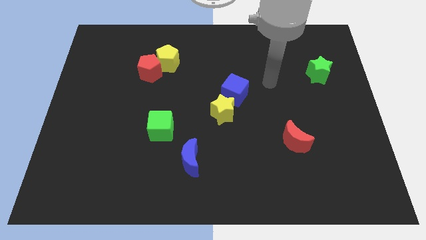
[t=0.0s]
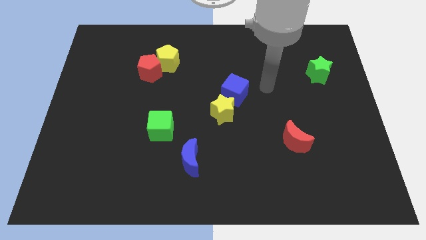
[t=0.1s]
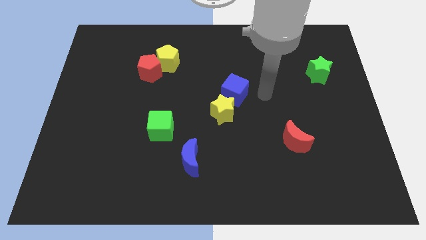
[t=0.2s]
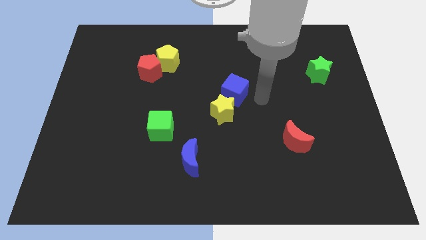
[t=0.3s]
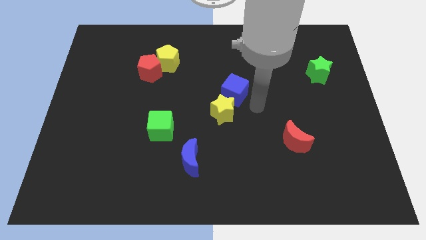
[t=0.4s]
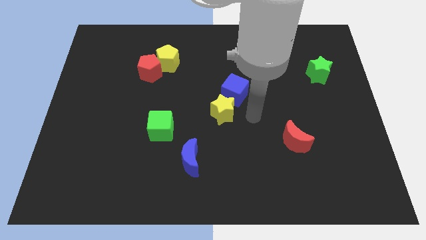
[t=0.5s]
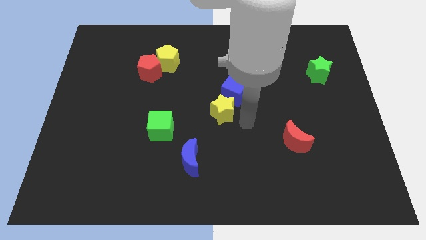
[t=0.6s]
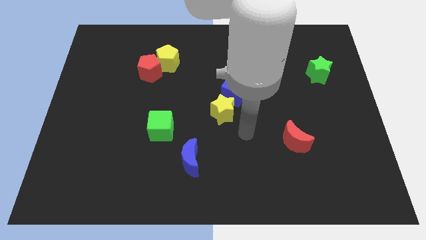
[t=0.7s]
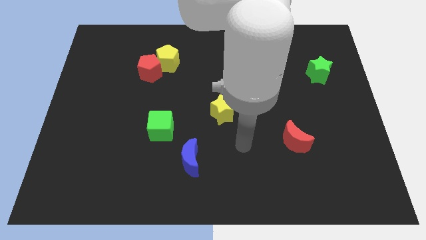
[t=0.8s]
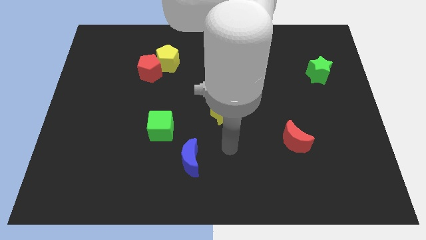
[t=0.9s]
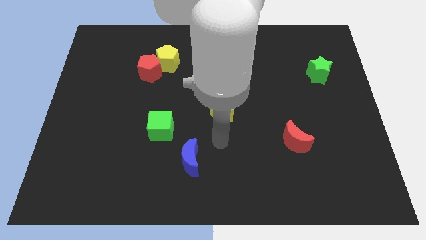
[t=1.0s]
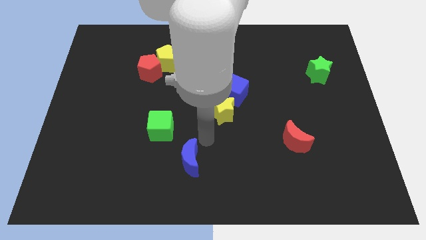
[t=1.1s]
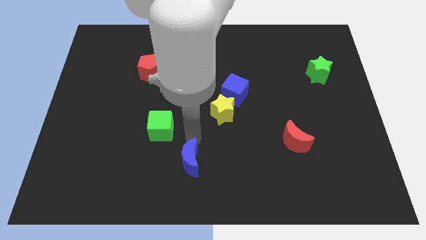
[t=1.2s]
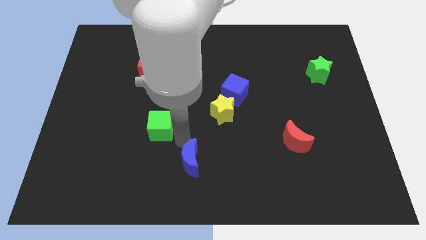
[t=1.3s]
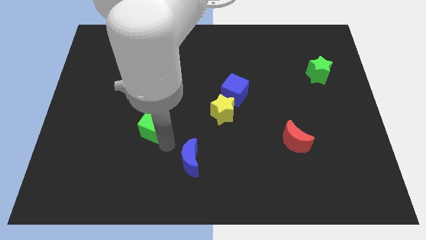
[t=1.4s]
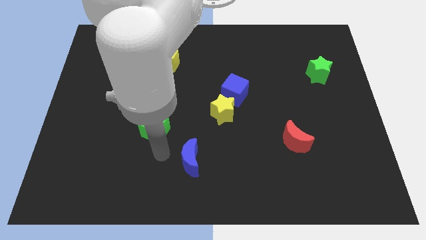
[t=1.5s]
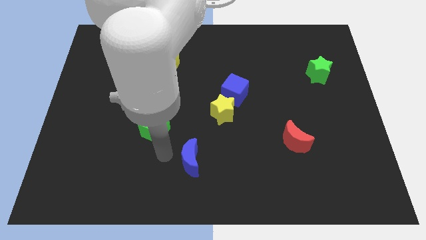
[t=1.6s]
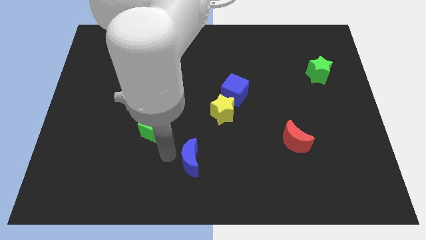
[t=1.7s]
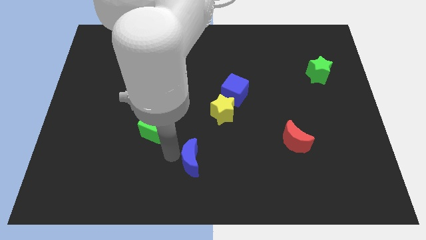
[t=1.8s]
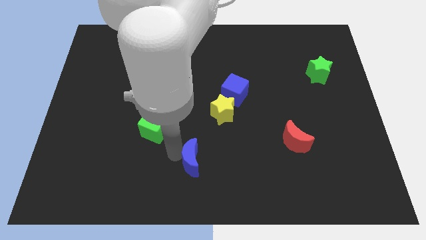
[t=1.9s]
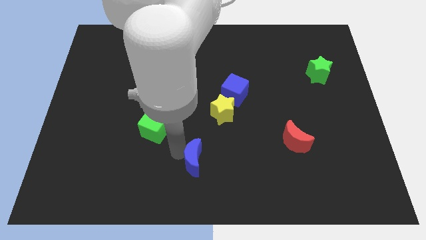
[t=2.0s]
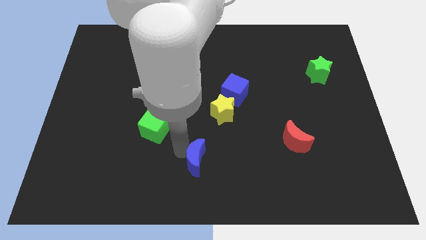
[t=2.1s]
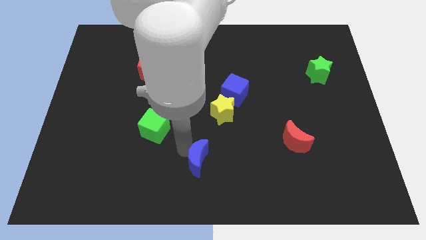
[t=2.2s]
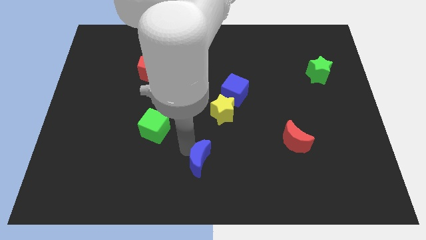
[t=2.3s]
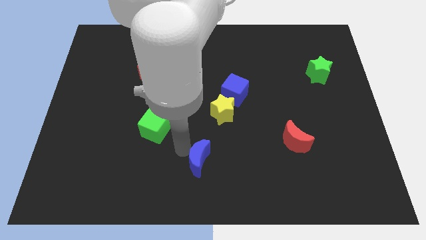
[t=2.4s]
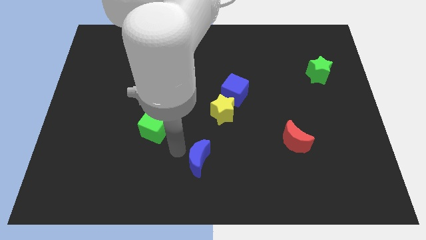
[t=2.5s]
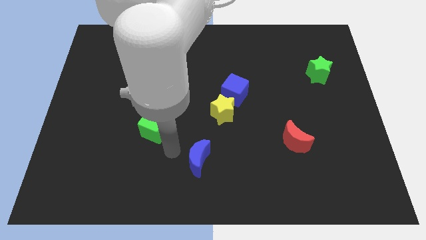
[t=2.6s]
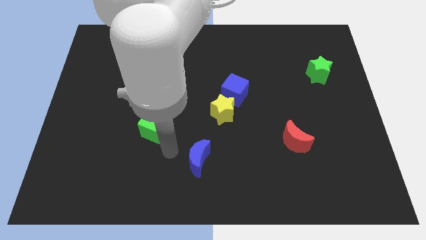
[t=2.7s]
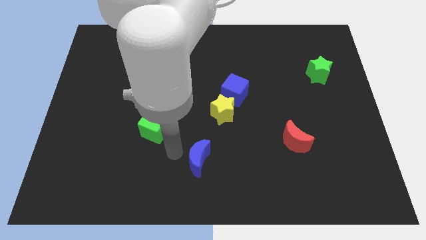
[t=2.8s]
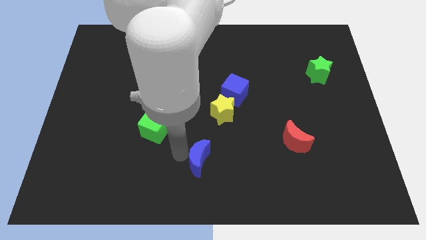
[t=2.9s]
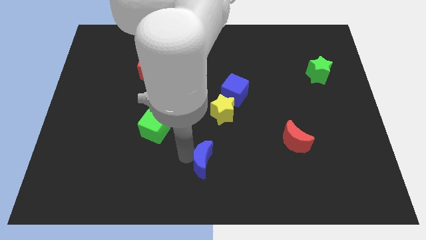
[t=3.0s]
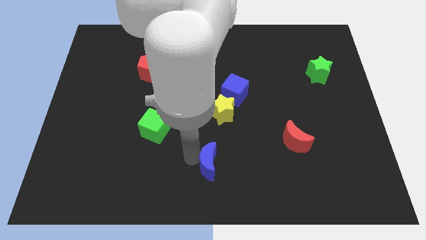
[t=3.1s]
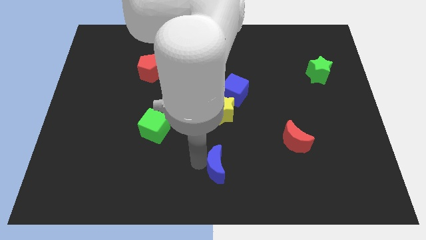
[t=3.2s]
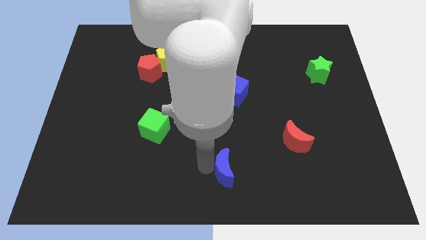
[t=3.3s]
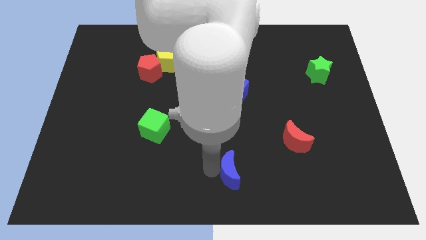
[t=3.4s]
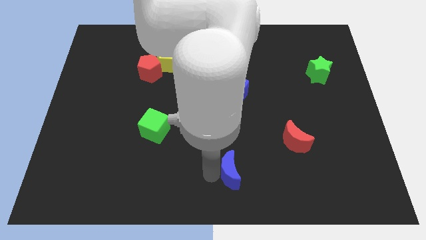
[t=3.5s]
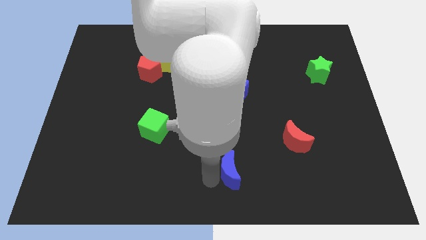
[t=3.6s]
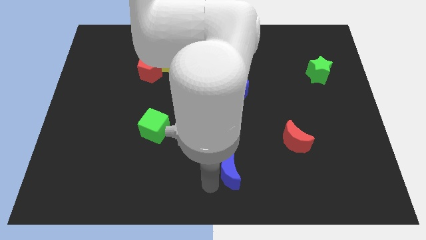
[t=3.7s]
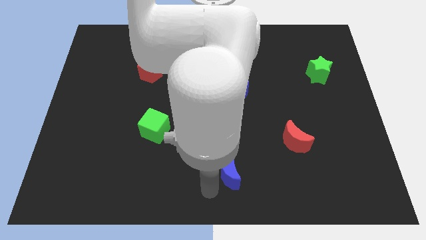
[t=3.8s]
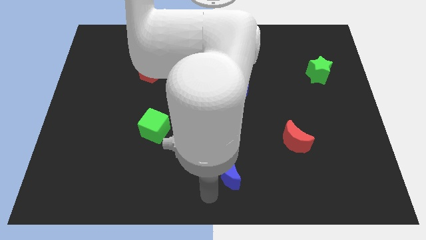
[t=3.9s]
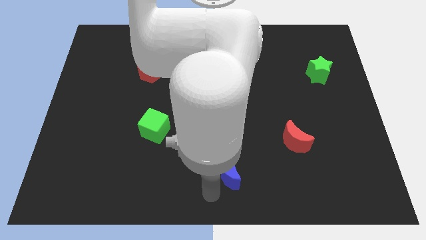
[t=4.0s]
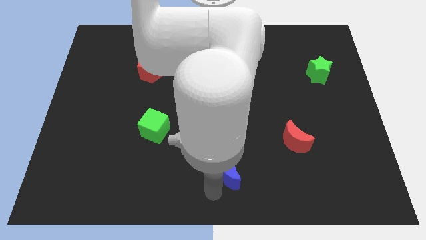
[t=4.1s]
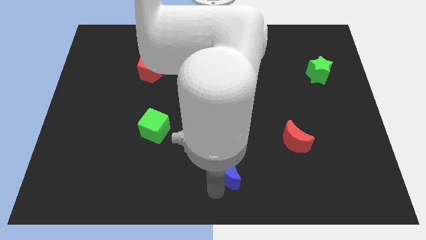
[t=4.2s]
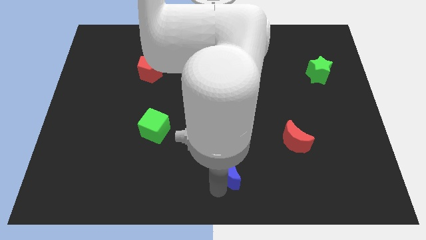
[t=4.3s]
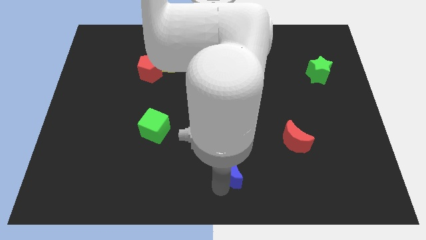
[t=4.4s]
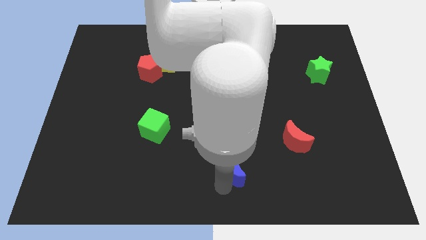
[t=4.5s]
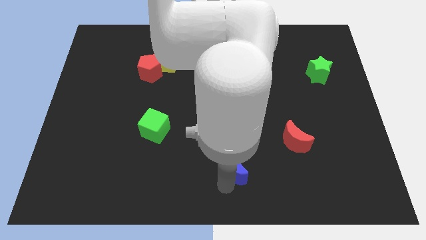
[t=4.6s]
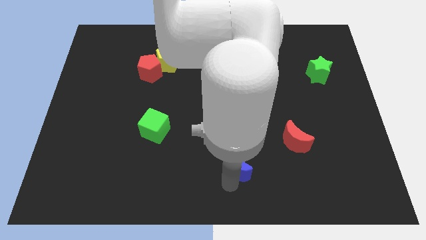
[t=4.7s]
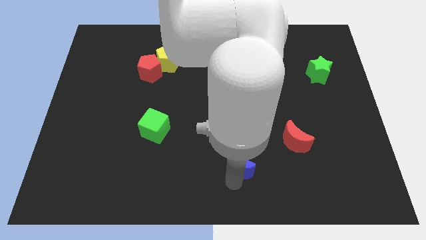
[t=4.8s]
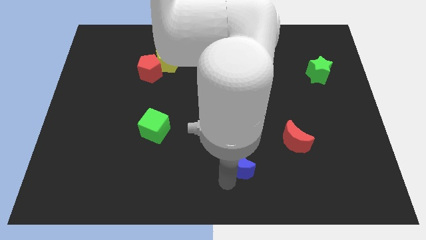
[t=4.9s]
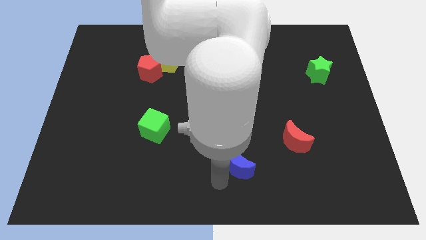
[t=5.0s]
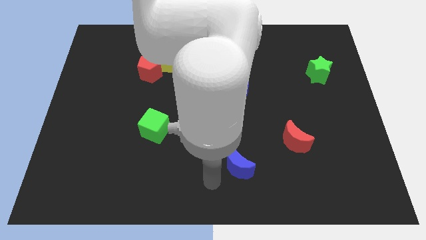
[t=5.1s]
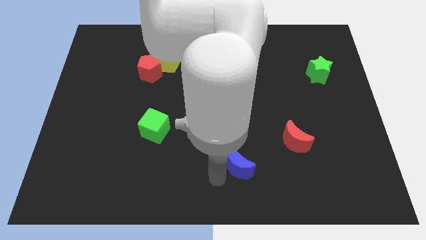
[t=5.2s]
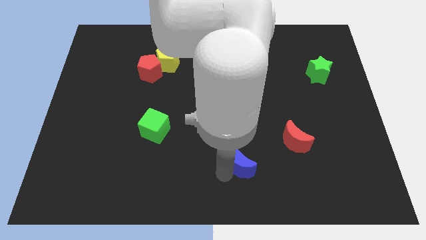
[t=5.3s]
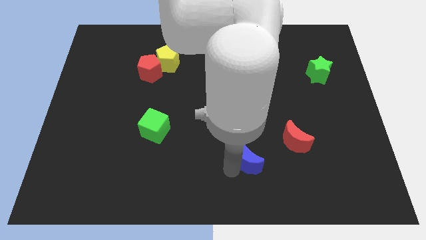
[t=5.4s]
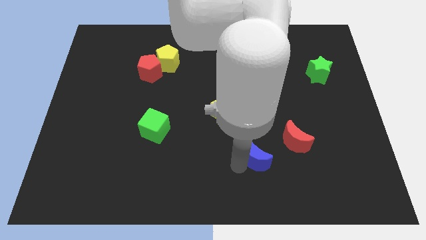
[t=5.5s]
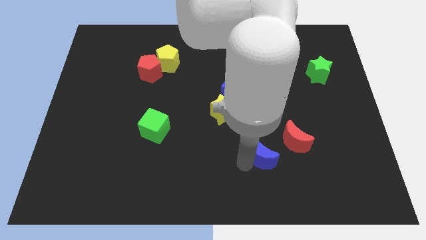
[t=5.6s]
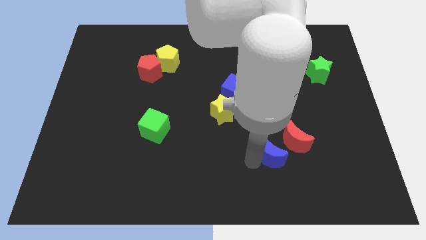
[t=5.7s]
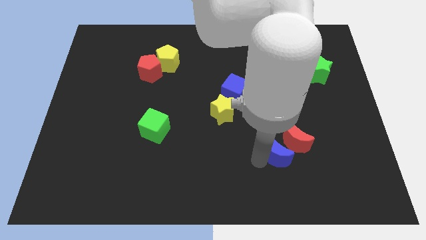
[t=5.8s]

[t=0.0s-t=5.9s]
put the blue moon towards the red moon

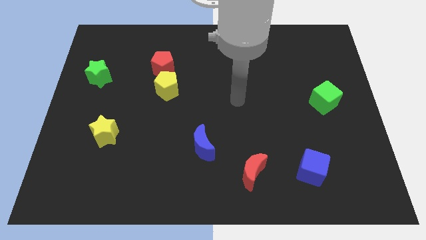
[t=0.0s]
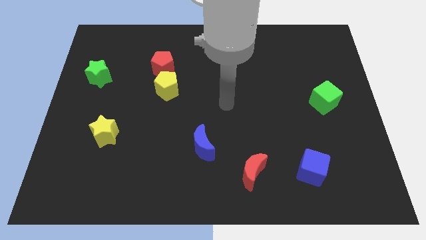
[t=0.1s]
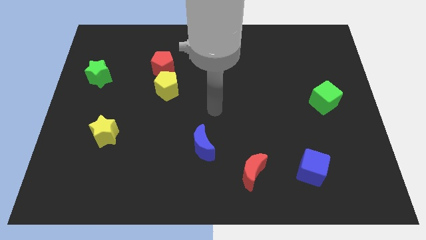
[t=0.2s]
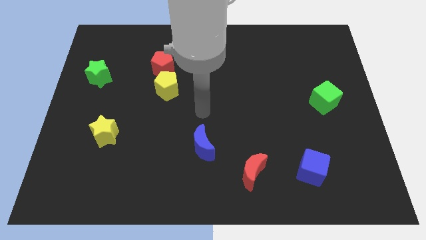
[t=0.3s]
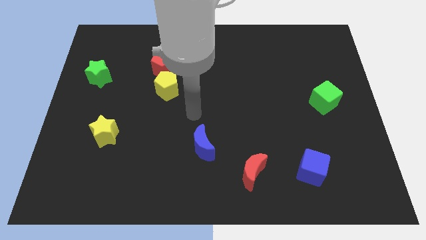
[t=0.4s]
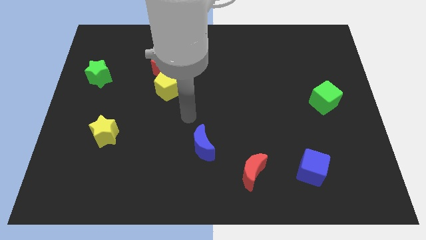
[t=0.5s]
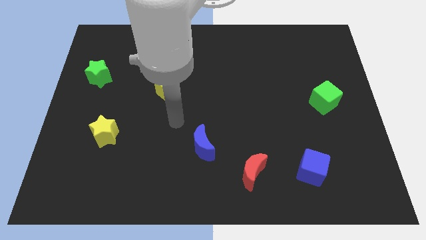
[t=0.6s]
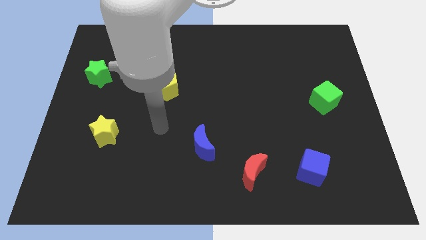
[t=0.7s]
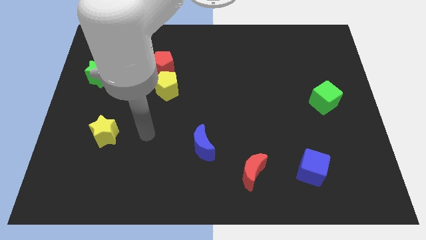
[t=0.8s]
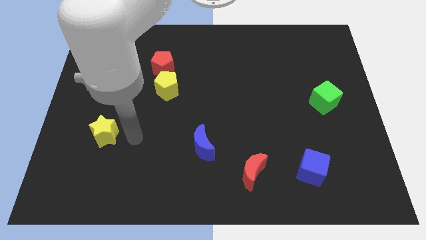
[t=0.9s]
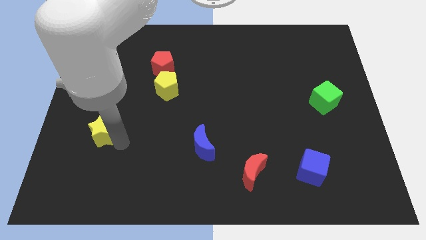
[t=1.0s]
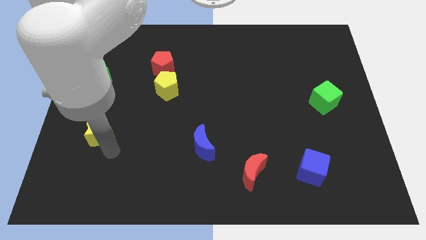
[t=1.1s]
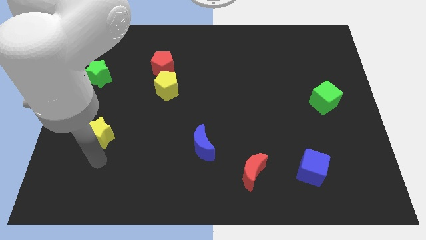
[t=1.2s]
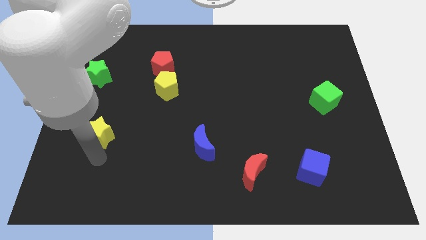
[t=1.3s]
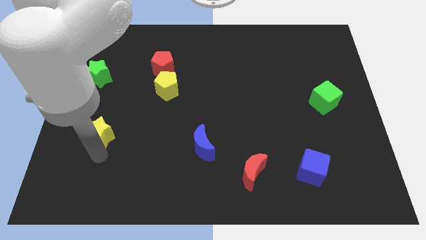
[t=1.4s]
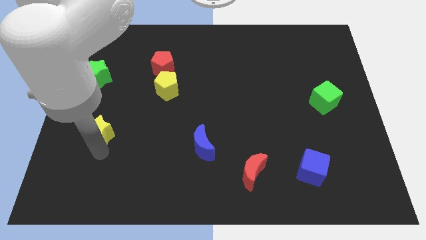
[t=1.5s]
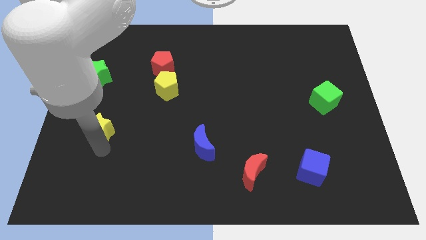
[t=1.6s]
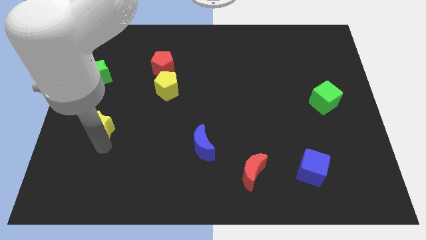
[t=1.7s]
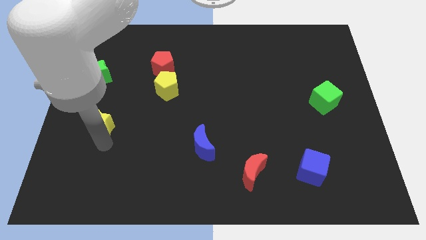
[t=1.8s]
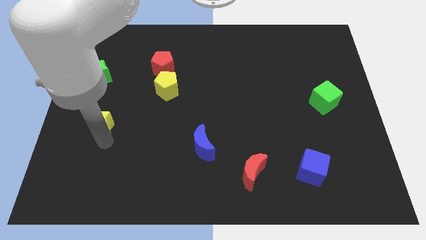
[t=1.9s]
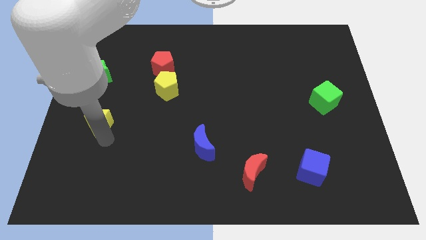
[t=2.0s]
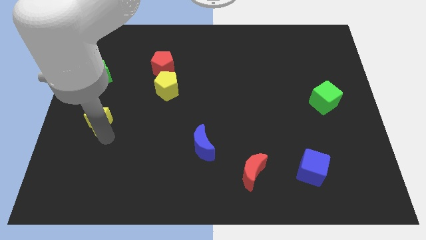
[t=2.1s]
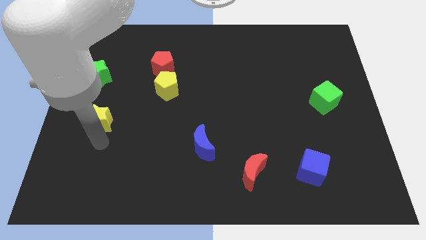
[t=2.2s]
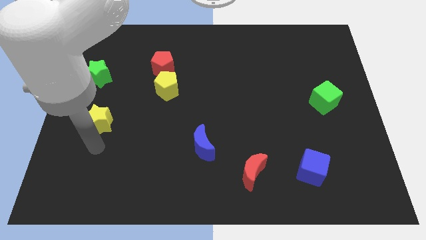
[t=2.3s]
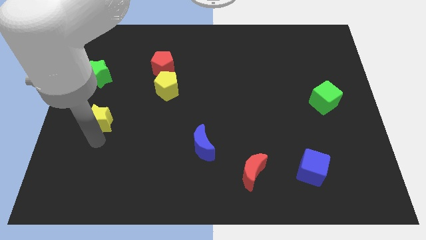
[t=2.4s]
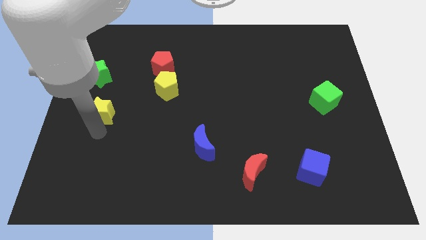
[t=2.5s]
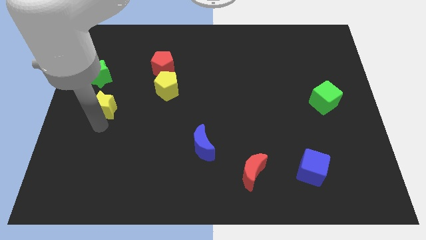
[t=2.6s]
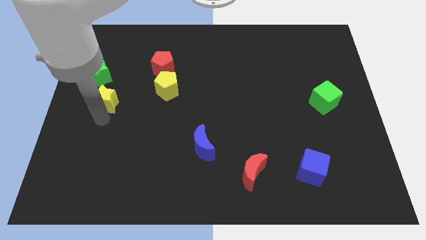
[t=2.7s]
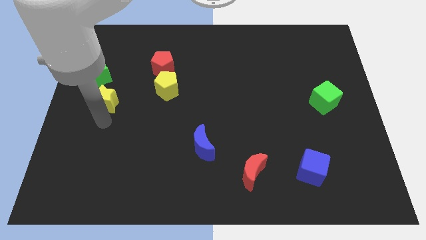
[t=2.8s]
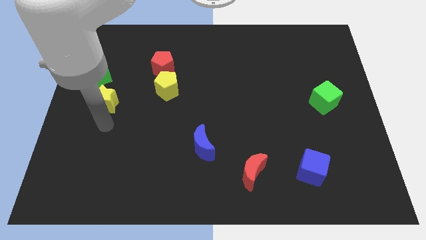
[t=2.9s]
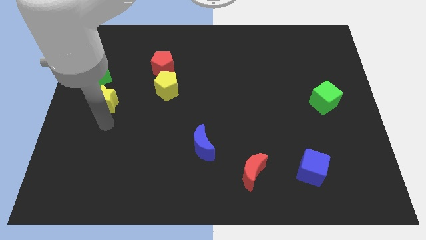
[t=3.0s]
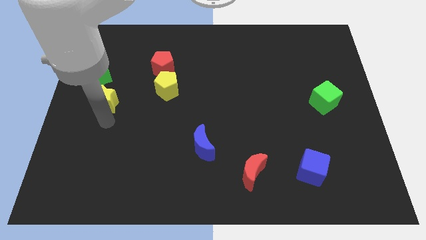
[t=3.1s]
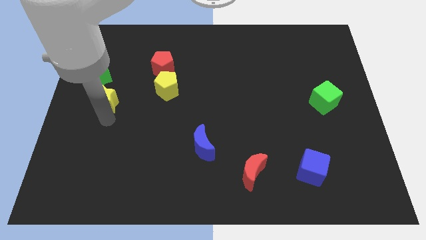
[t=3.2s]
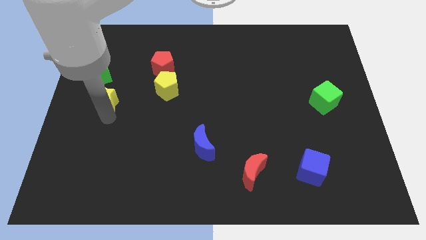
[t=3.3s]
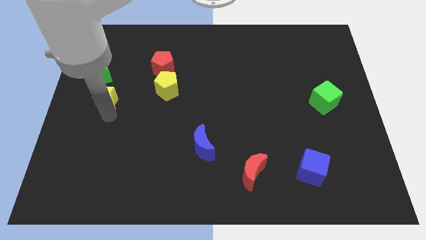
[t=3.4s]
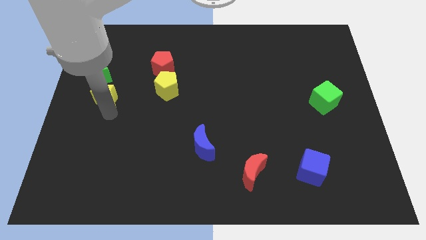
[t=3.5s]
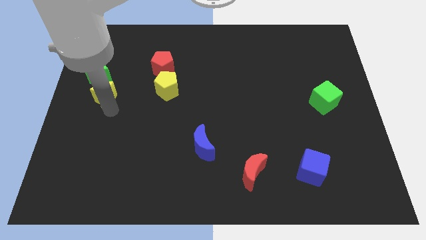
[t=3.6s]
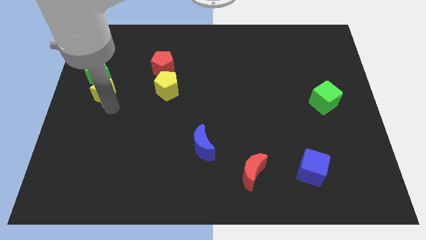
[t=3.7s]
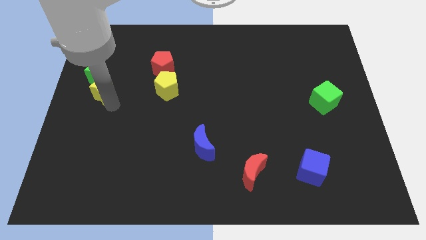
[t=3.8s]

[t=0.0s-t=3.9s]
move the yellow star close to the green star
